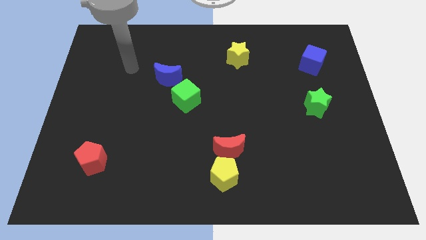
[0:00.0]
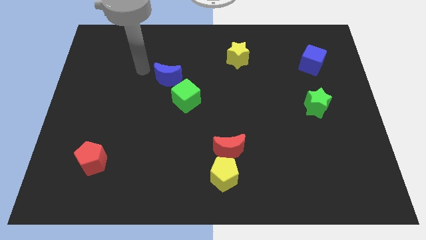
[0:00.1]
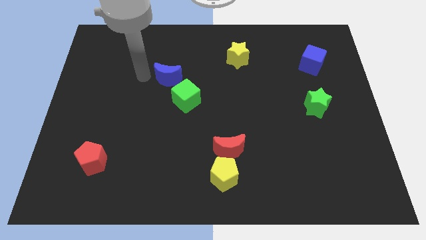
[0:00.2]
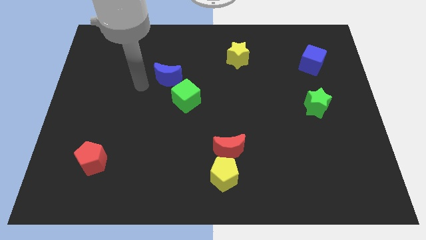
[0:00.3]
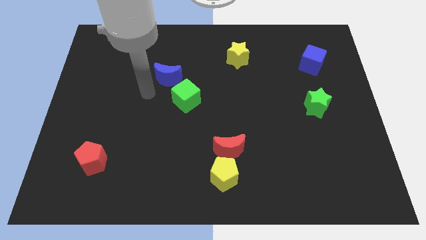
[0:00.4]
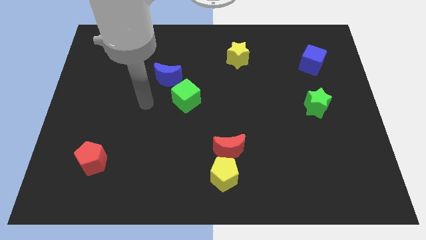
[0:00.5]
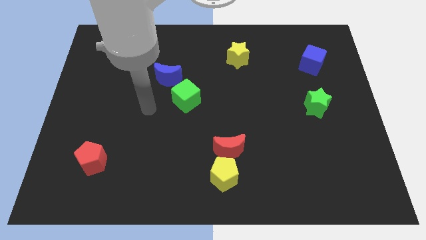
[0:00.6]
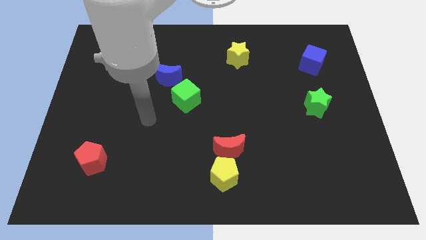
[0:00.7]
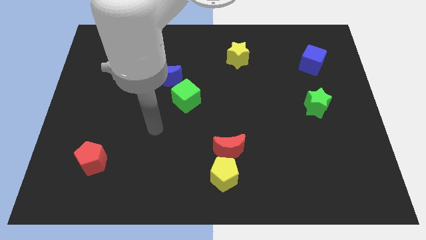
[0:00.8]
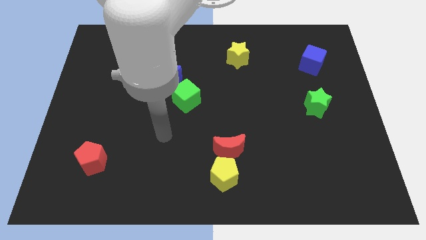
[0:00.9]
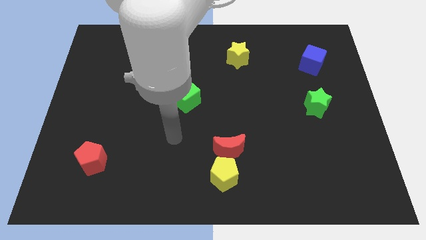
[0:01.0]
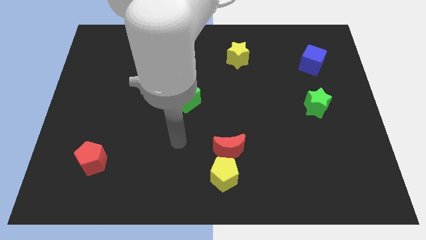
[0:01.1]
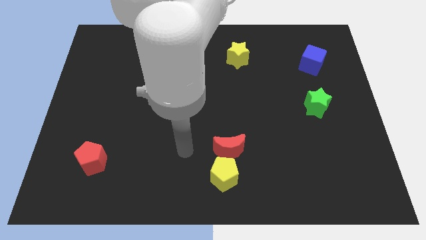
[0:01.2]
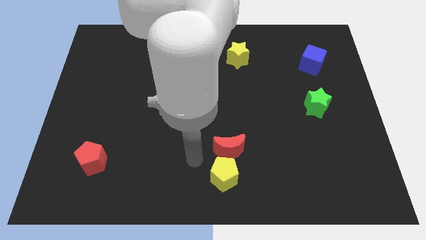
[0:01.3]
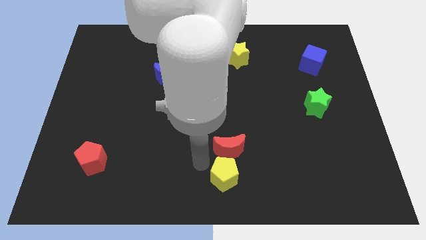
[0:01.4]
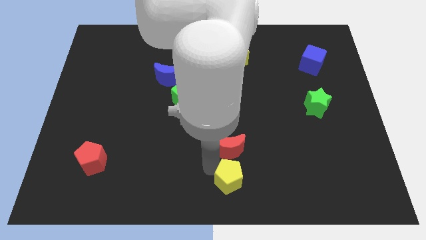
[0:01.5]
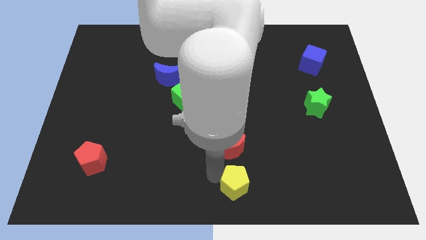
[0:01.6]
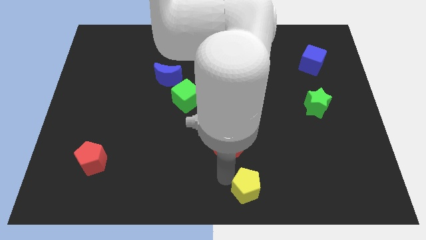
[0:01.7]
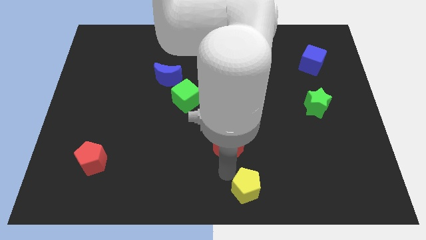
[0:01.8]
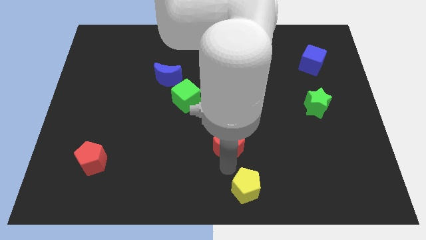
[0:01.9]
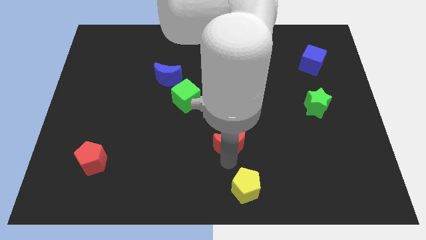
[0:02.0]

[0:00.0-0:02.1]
move the red moon away from the yellow pentagon

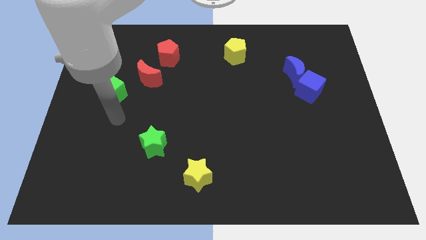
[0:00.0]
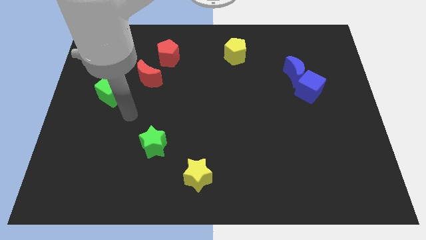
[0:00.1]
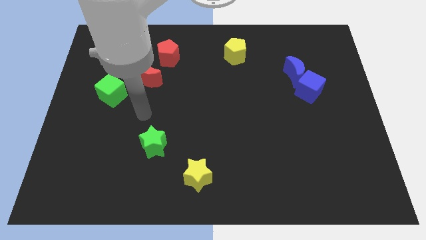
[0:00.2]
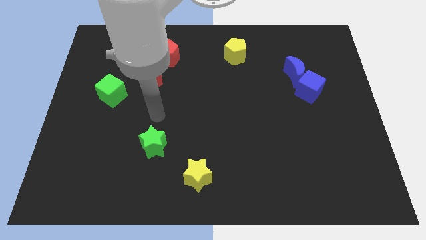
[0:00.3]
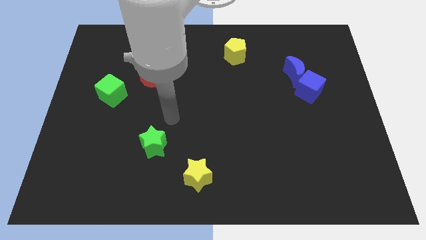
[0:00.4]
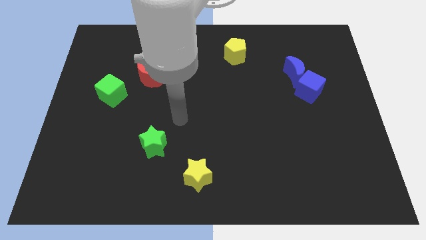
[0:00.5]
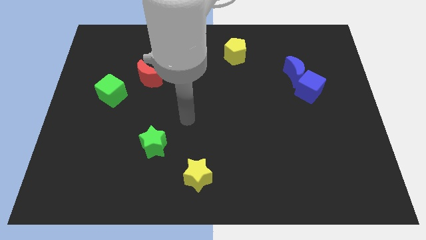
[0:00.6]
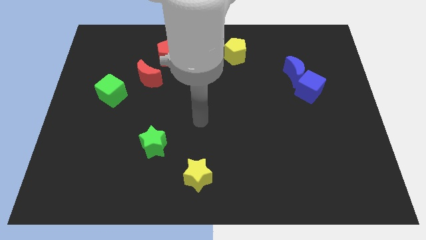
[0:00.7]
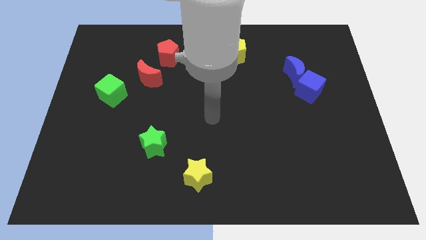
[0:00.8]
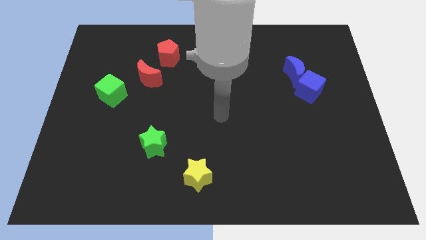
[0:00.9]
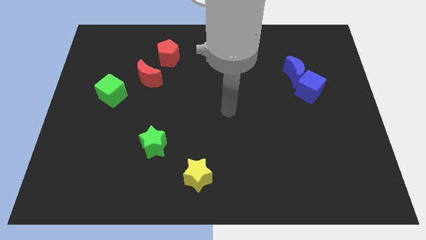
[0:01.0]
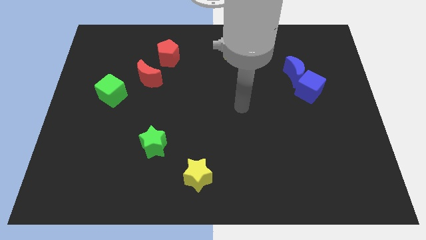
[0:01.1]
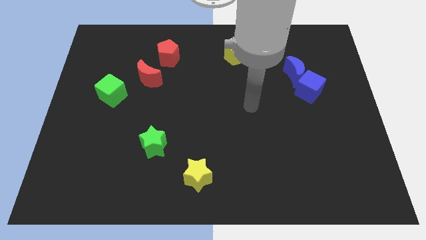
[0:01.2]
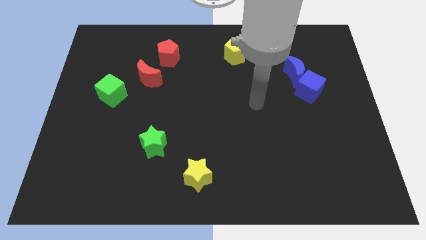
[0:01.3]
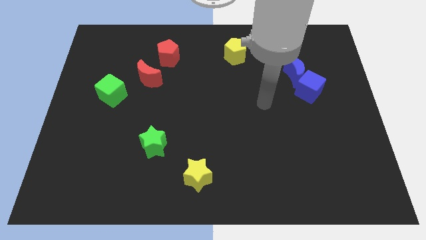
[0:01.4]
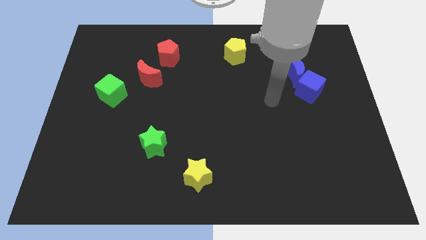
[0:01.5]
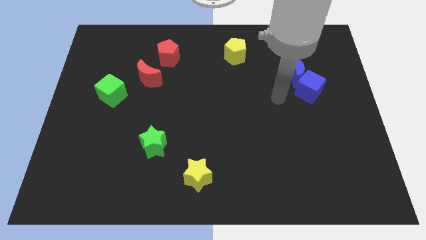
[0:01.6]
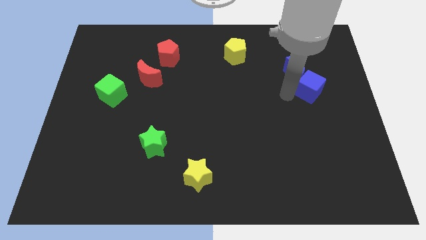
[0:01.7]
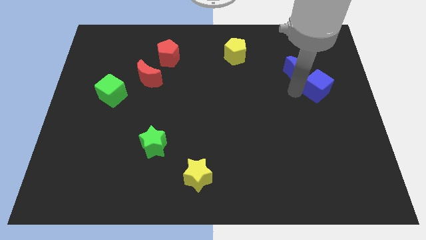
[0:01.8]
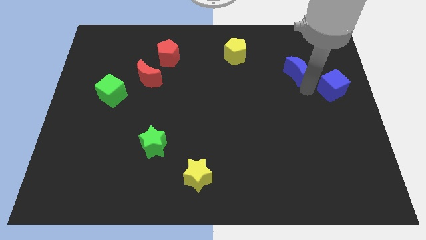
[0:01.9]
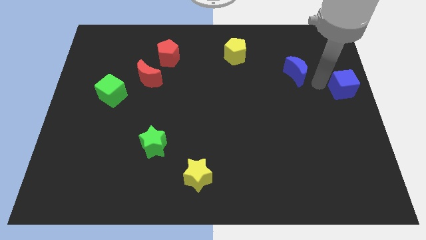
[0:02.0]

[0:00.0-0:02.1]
move the blue moon away from the blue cube

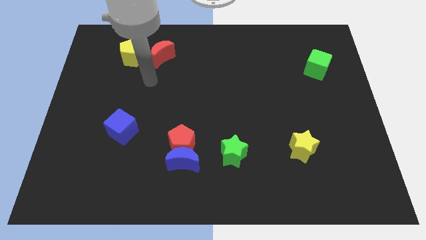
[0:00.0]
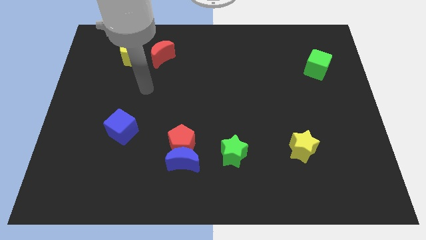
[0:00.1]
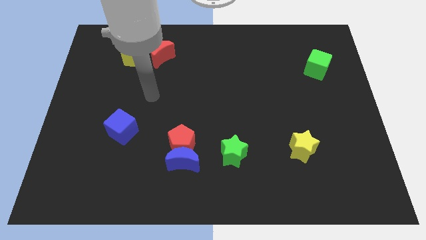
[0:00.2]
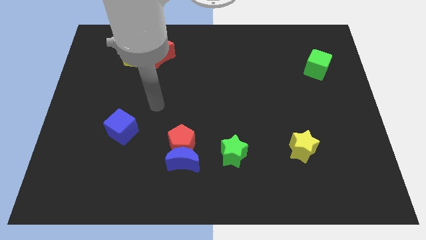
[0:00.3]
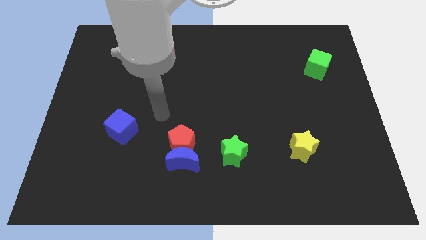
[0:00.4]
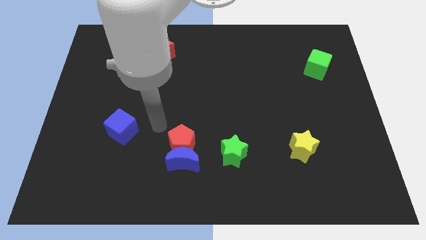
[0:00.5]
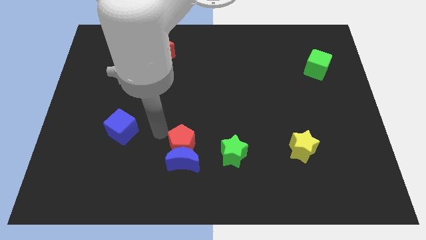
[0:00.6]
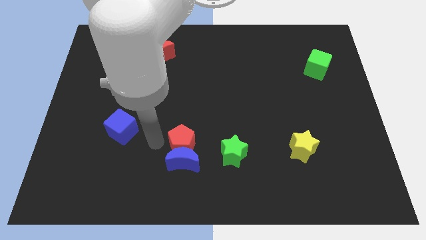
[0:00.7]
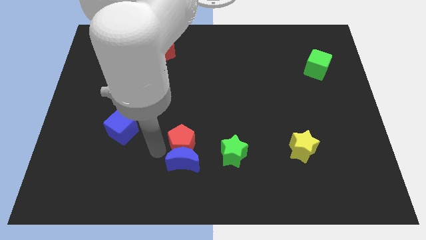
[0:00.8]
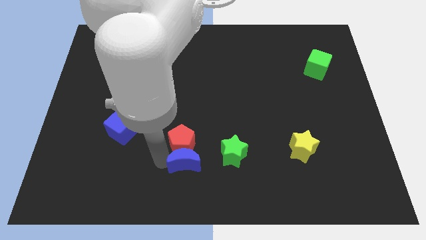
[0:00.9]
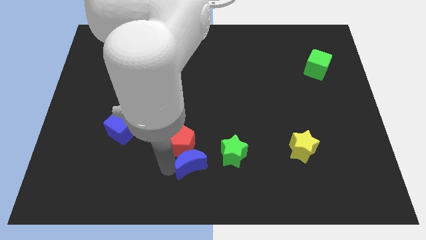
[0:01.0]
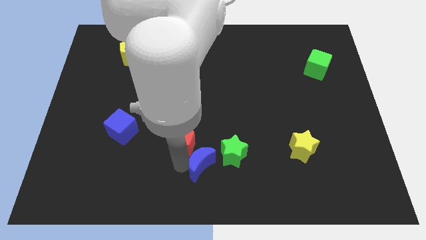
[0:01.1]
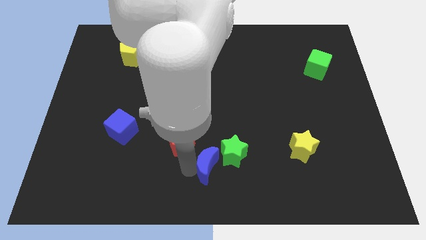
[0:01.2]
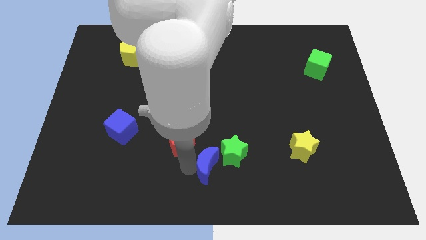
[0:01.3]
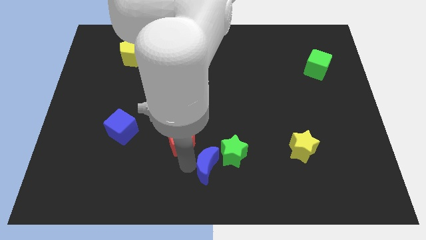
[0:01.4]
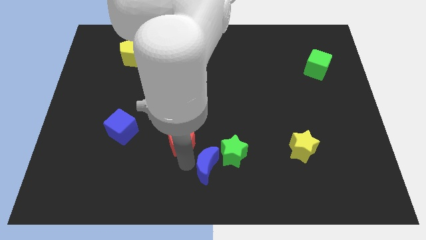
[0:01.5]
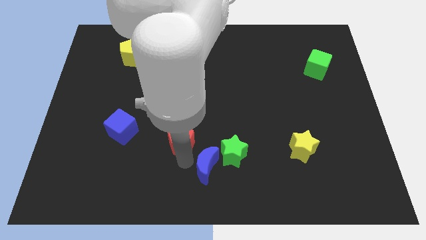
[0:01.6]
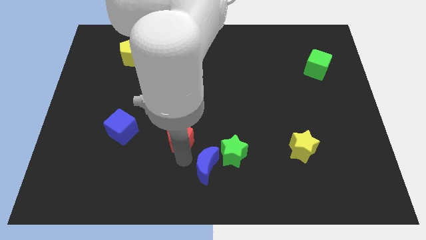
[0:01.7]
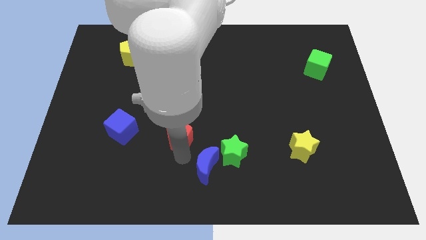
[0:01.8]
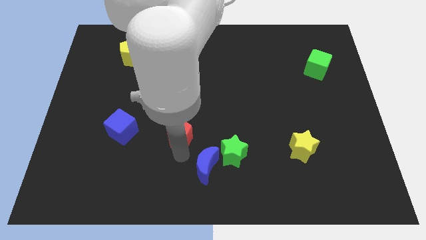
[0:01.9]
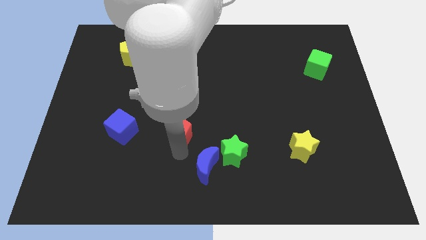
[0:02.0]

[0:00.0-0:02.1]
separate the red pentagon from the blue moon

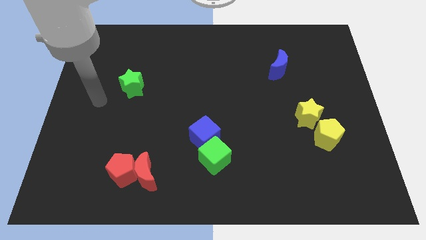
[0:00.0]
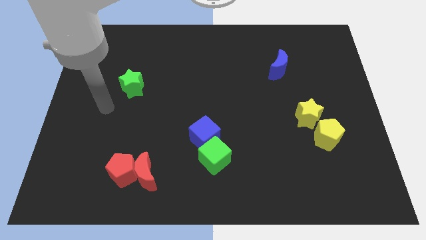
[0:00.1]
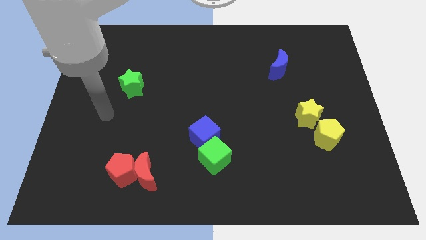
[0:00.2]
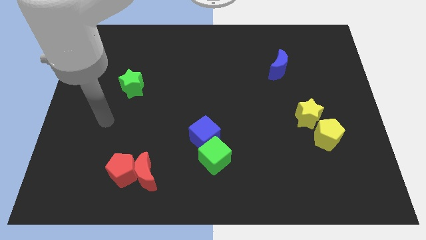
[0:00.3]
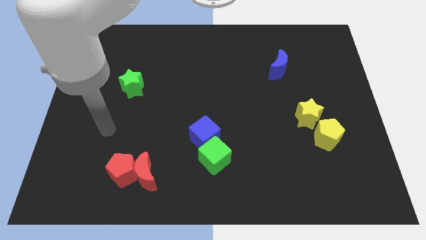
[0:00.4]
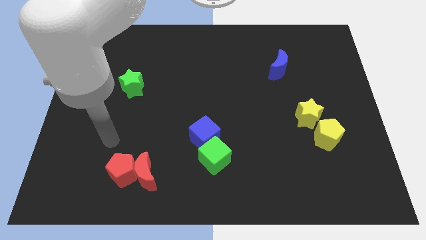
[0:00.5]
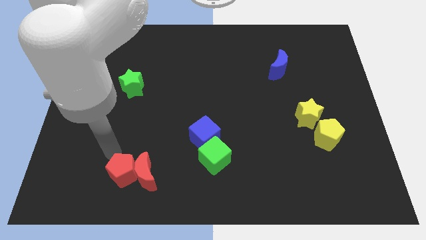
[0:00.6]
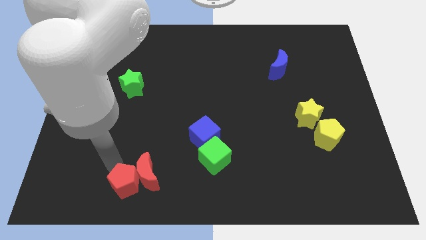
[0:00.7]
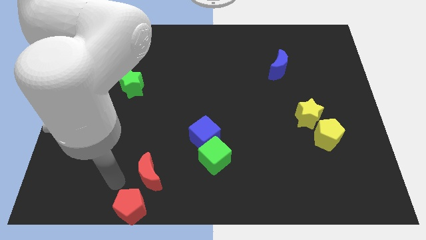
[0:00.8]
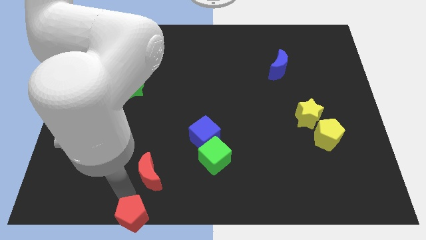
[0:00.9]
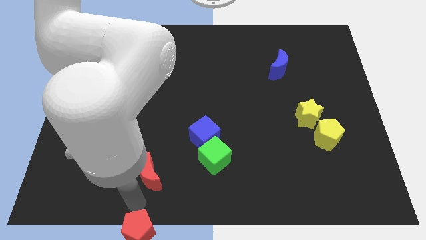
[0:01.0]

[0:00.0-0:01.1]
pull the red moon apart from the red pentagon

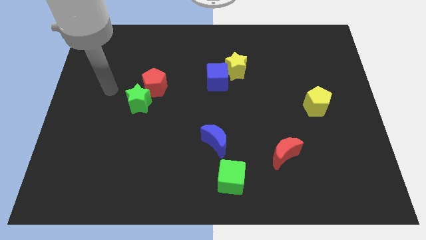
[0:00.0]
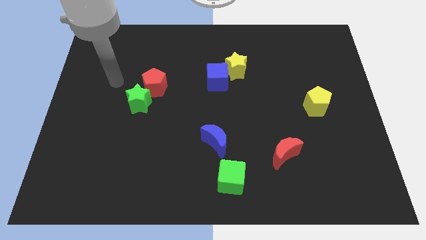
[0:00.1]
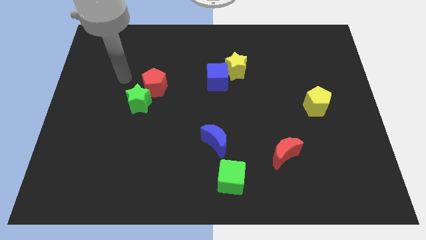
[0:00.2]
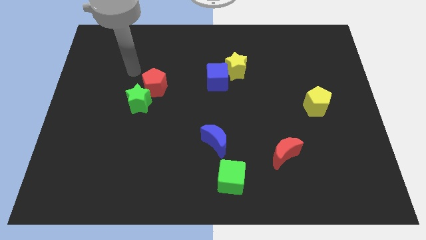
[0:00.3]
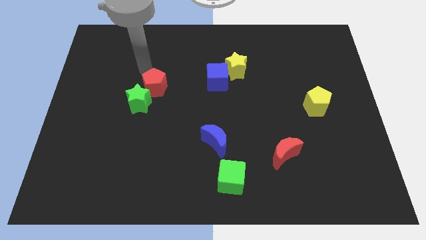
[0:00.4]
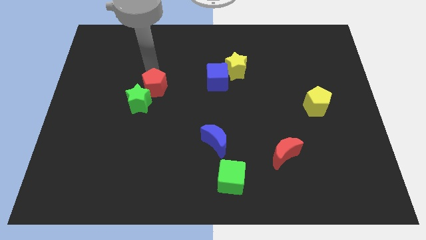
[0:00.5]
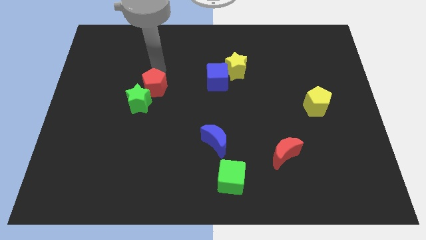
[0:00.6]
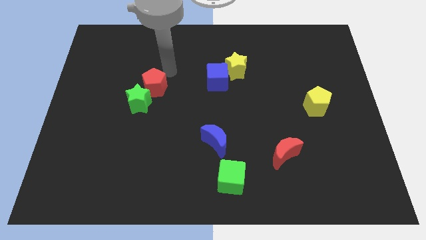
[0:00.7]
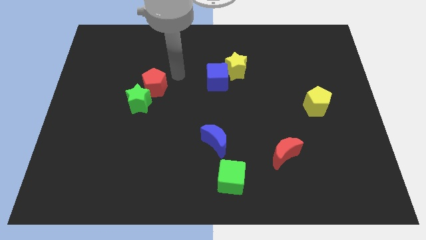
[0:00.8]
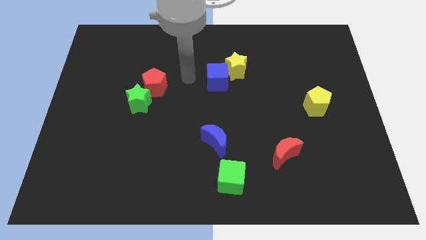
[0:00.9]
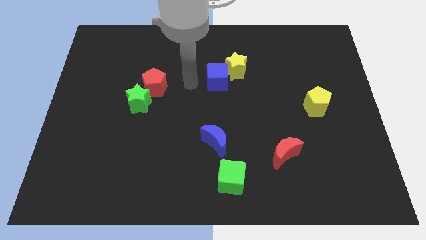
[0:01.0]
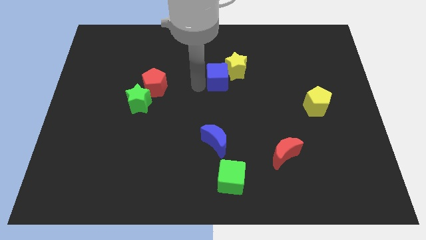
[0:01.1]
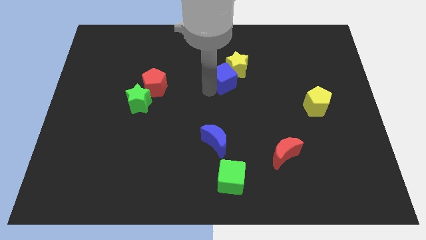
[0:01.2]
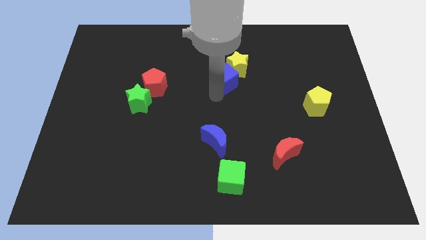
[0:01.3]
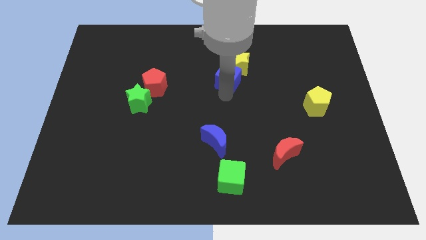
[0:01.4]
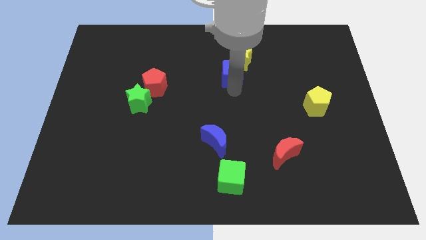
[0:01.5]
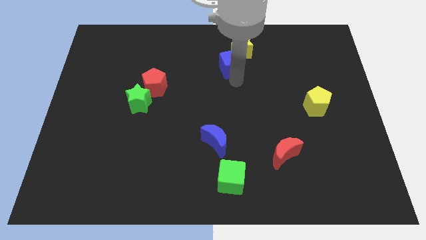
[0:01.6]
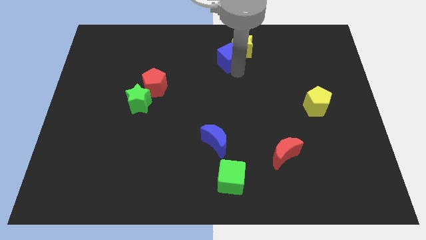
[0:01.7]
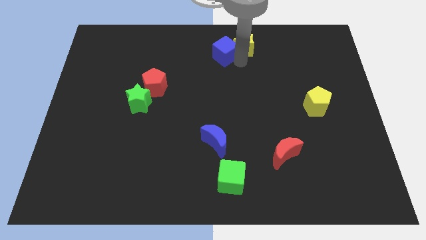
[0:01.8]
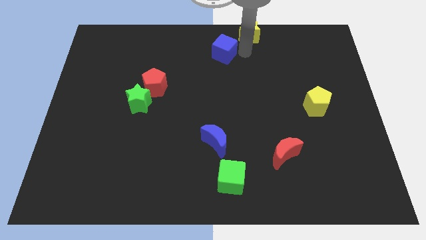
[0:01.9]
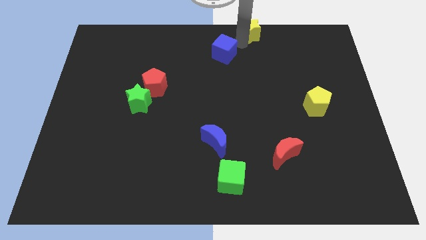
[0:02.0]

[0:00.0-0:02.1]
pull the blue cube apart from the yellow star
